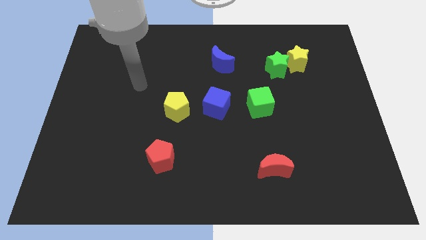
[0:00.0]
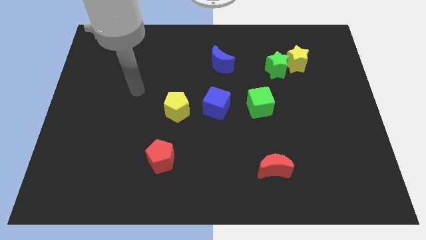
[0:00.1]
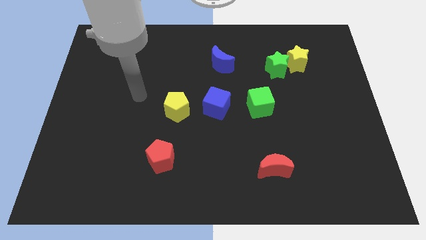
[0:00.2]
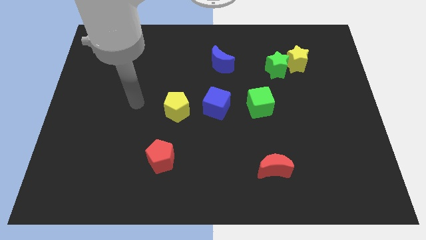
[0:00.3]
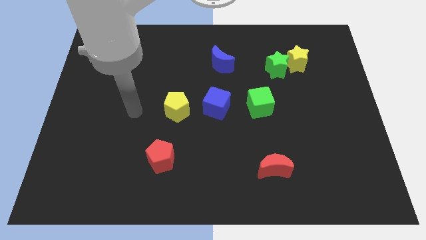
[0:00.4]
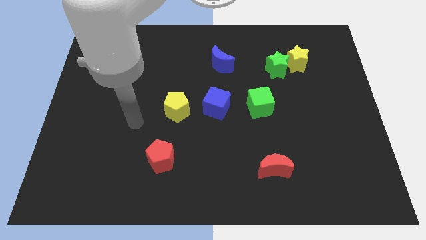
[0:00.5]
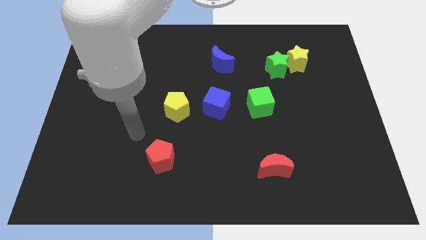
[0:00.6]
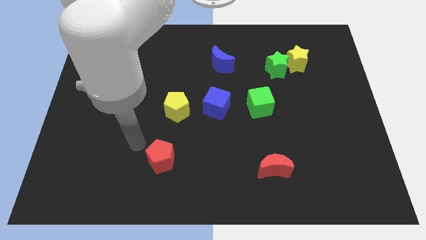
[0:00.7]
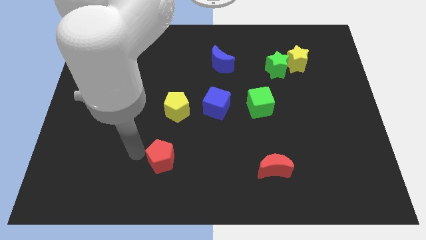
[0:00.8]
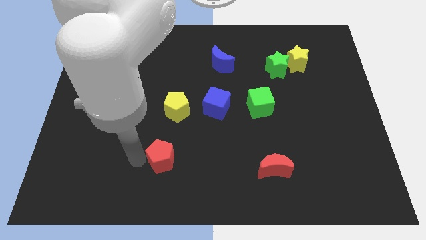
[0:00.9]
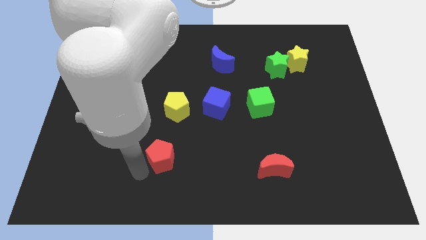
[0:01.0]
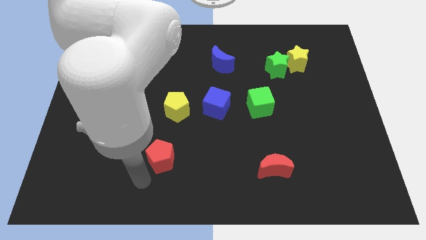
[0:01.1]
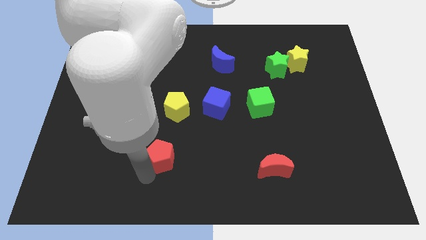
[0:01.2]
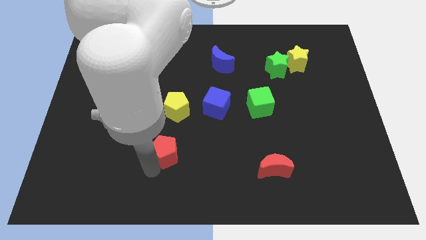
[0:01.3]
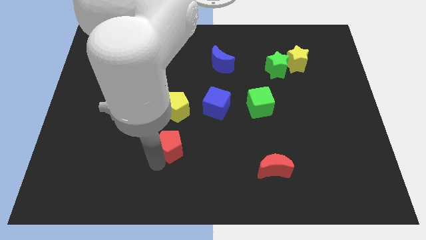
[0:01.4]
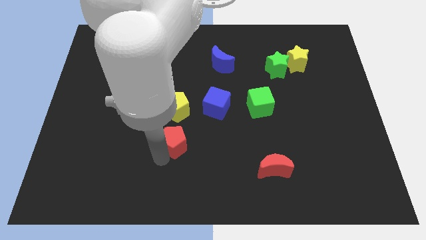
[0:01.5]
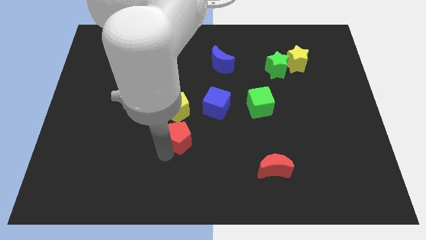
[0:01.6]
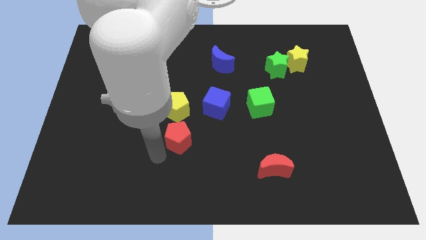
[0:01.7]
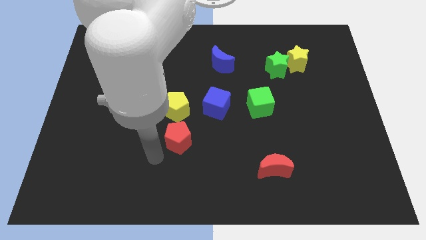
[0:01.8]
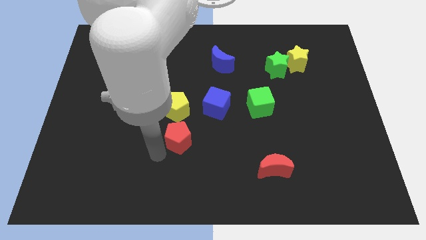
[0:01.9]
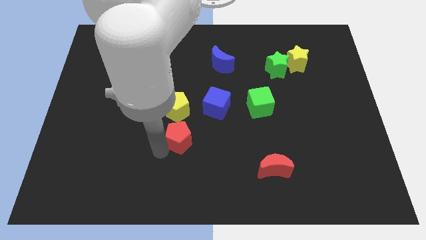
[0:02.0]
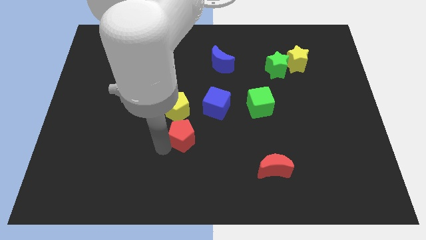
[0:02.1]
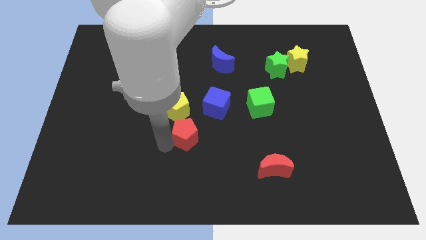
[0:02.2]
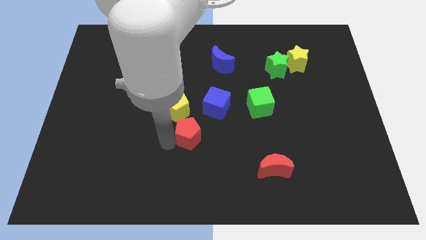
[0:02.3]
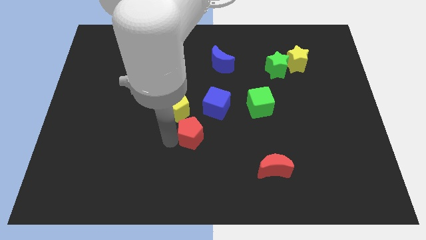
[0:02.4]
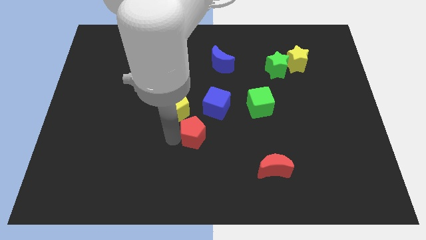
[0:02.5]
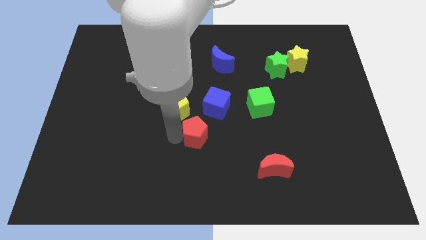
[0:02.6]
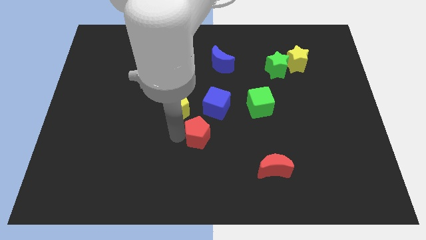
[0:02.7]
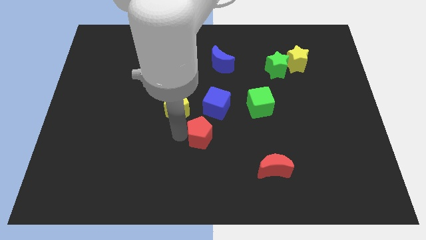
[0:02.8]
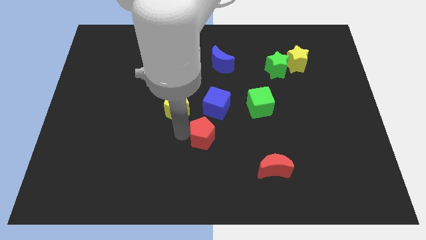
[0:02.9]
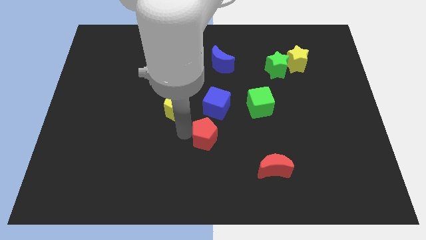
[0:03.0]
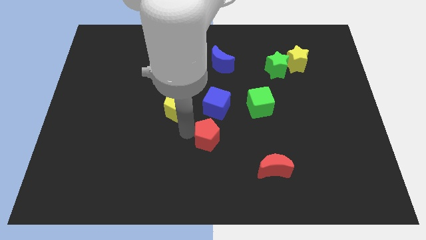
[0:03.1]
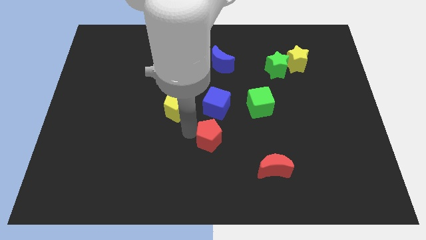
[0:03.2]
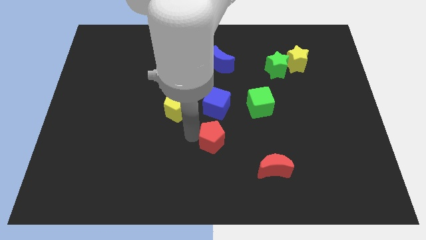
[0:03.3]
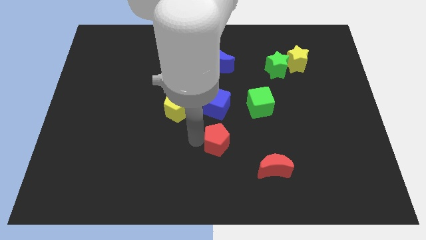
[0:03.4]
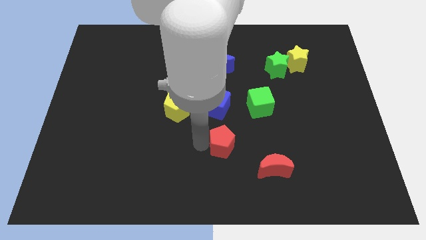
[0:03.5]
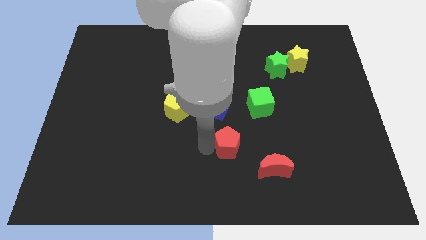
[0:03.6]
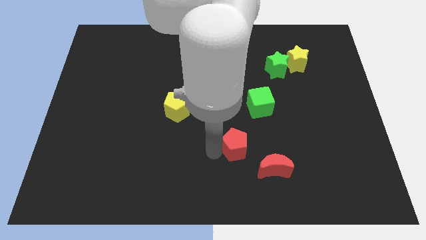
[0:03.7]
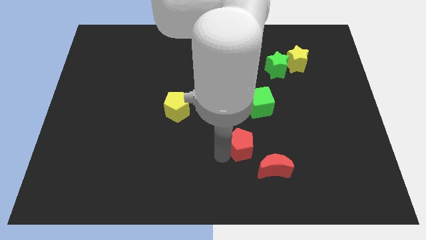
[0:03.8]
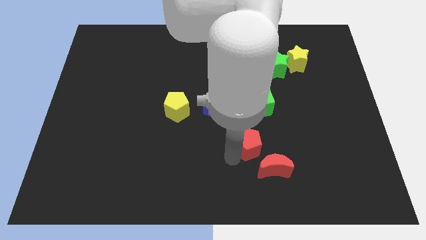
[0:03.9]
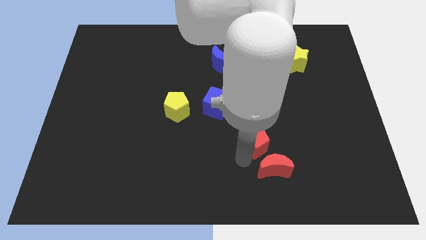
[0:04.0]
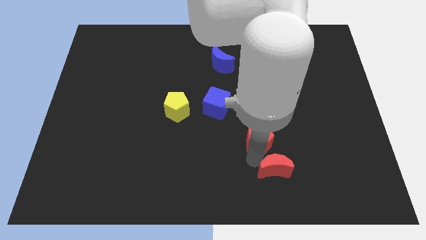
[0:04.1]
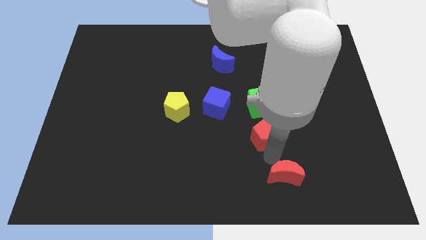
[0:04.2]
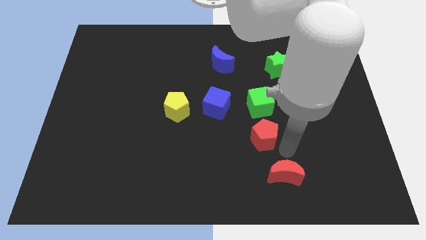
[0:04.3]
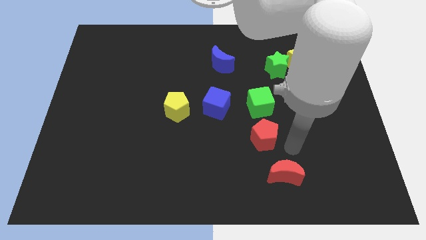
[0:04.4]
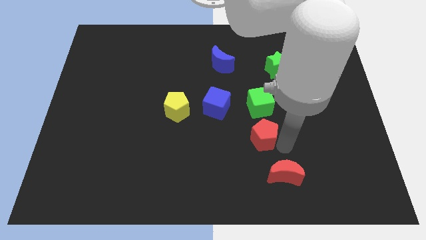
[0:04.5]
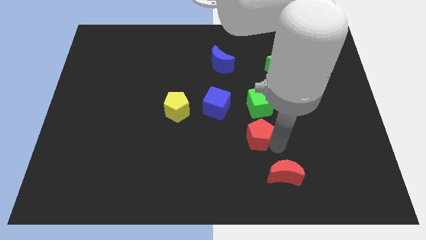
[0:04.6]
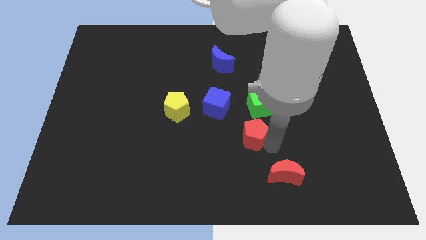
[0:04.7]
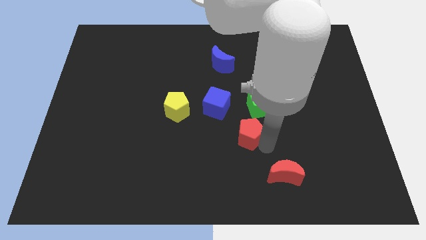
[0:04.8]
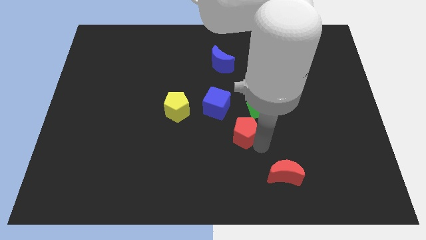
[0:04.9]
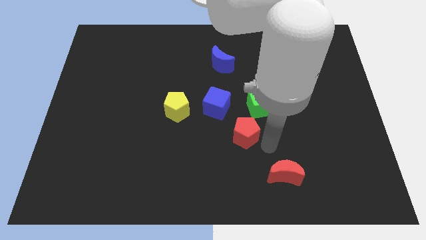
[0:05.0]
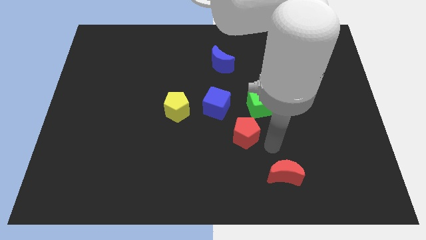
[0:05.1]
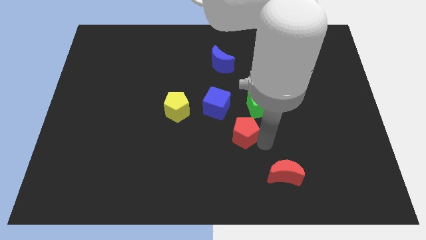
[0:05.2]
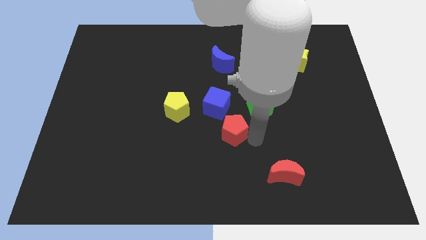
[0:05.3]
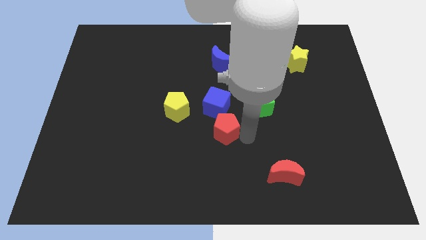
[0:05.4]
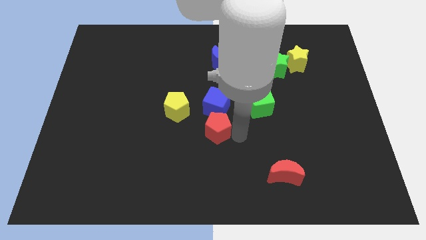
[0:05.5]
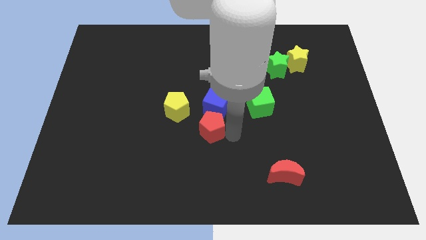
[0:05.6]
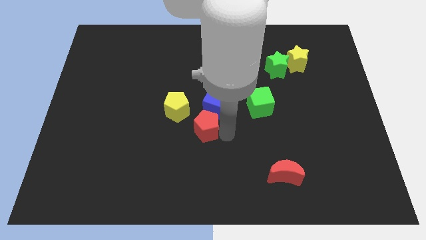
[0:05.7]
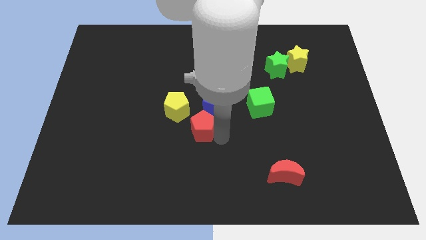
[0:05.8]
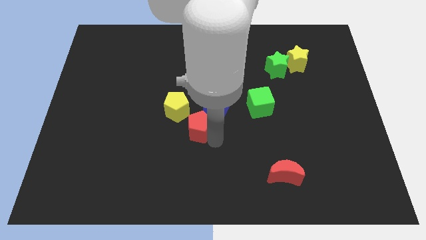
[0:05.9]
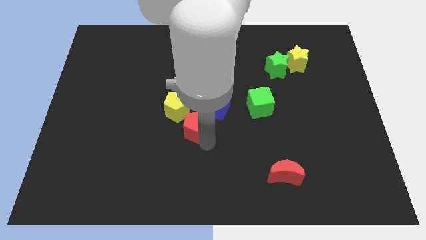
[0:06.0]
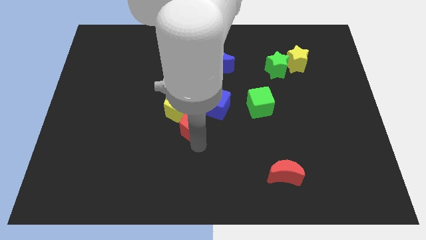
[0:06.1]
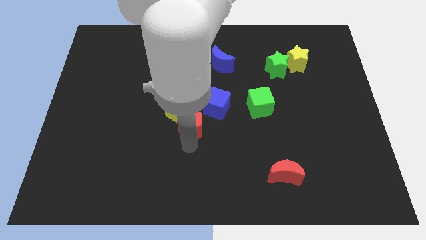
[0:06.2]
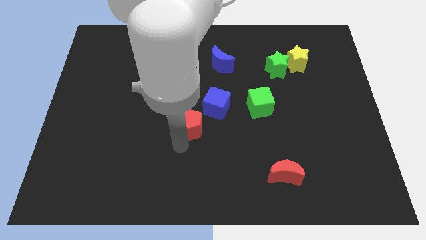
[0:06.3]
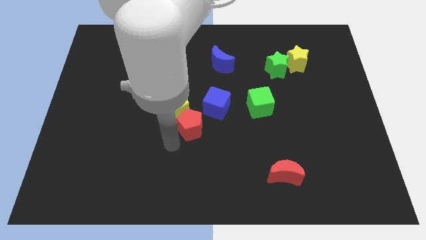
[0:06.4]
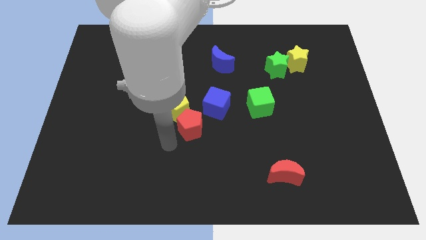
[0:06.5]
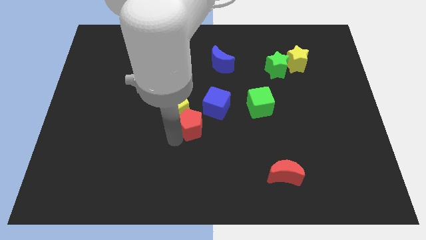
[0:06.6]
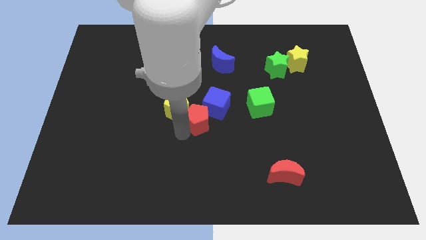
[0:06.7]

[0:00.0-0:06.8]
push the red pentagon close to the blue cube

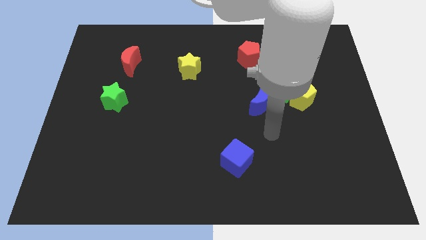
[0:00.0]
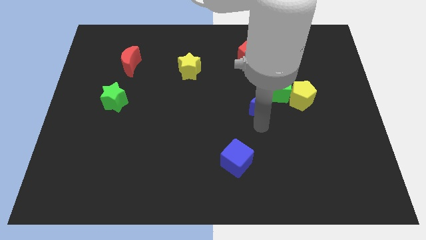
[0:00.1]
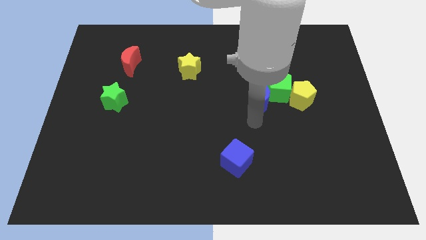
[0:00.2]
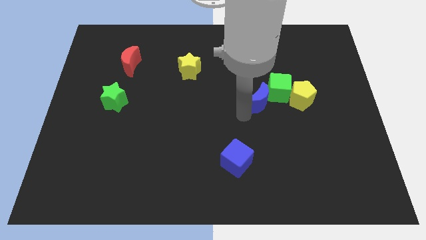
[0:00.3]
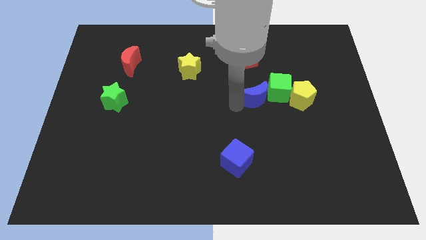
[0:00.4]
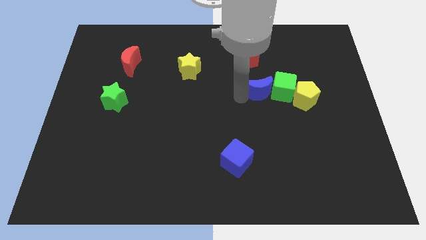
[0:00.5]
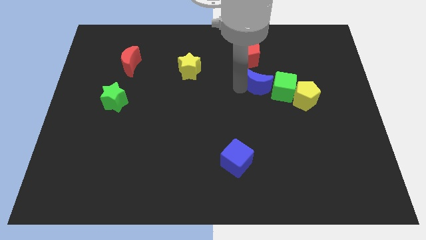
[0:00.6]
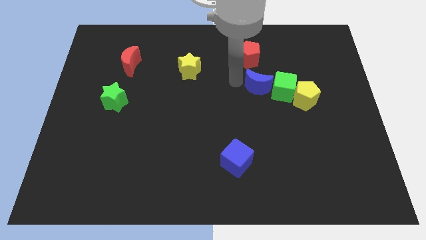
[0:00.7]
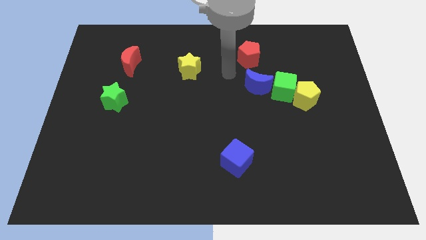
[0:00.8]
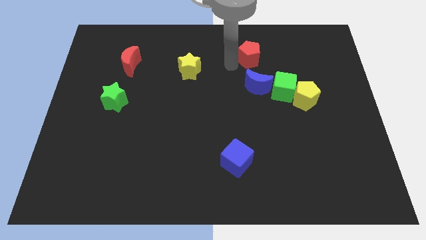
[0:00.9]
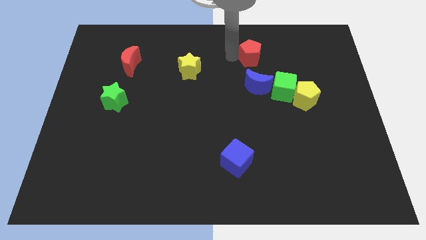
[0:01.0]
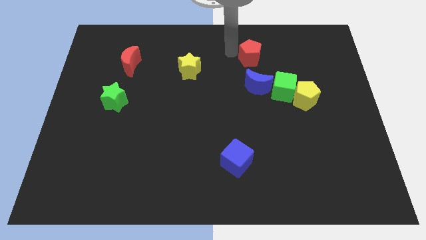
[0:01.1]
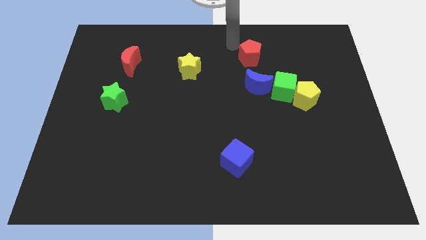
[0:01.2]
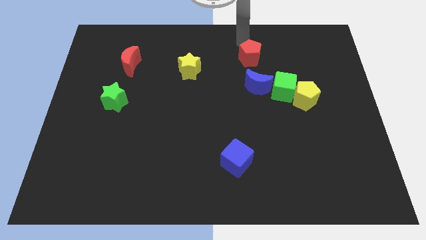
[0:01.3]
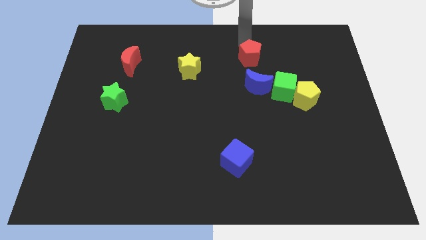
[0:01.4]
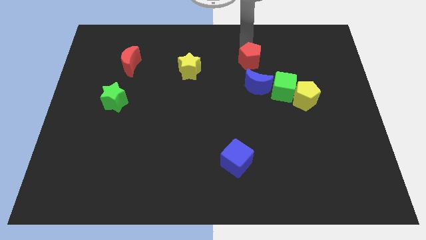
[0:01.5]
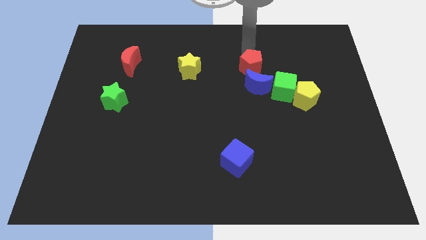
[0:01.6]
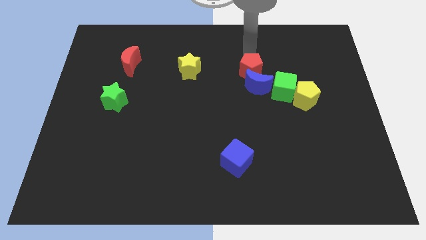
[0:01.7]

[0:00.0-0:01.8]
move the red pentagon next to the blue moon
